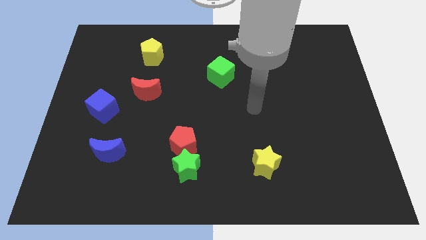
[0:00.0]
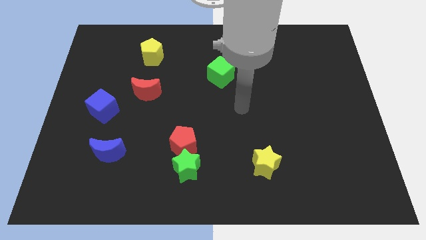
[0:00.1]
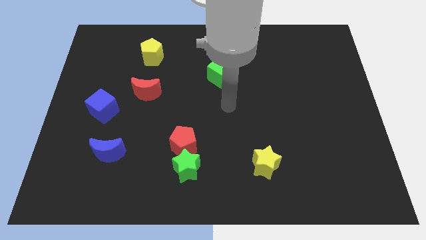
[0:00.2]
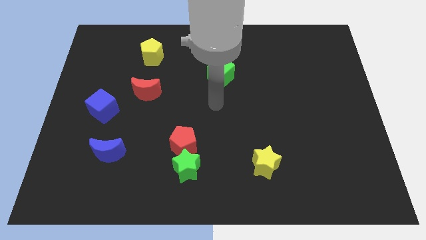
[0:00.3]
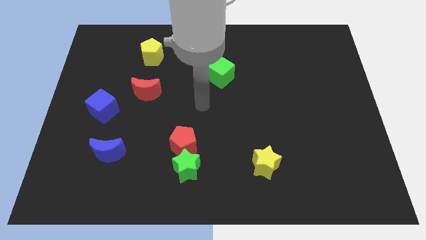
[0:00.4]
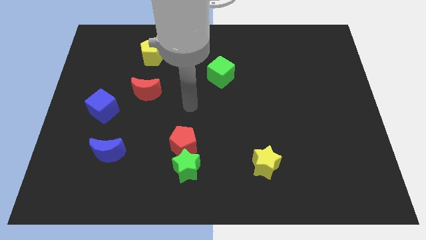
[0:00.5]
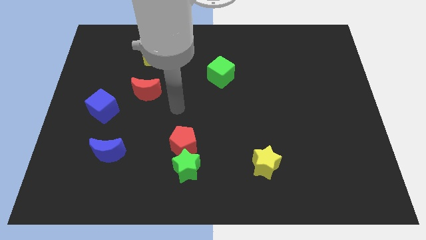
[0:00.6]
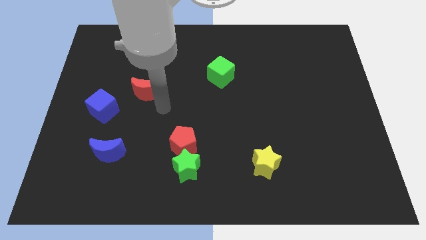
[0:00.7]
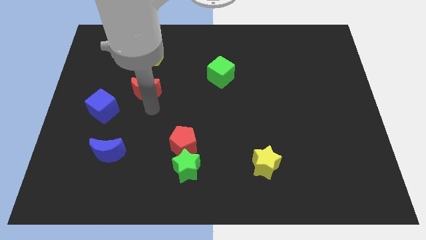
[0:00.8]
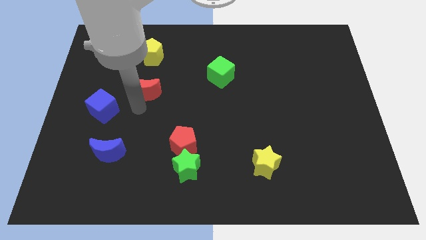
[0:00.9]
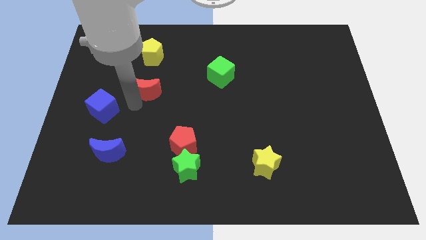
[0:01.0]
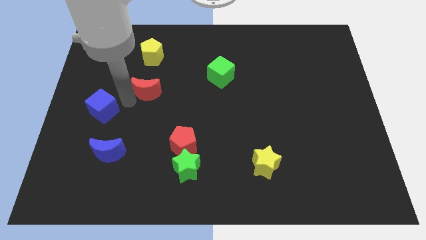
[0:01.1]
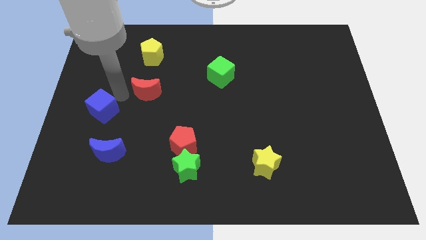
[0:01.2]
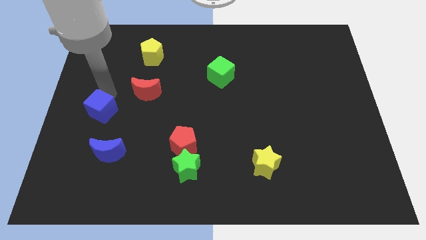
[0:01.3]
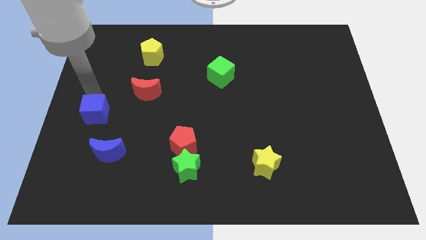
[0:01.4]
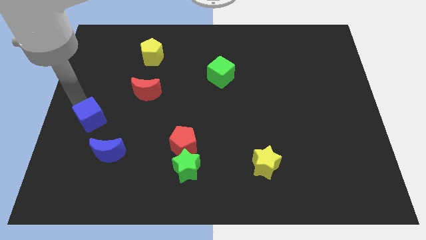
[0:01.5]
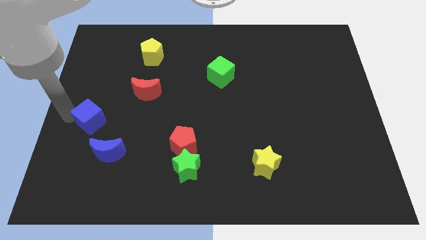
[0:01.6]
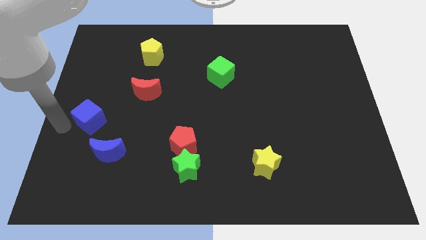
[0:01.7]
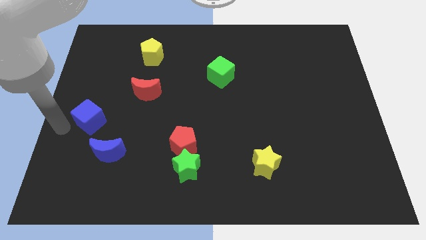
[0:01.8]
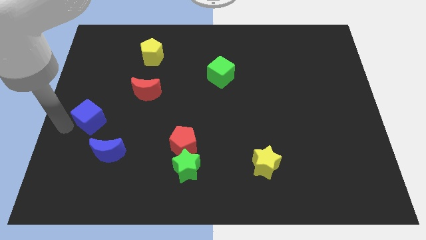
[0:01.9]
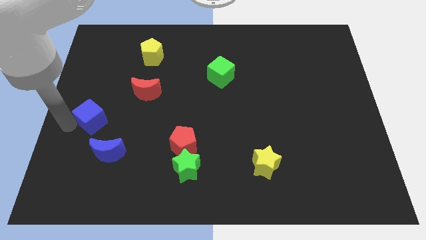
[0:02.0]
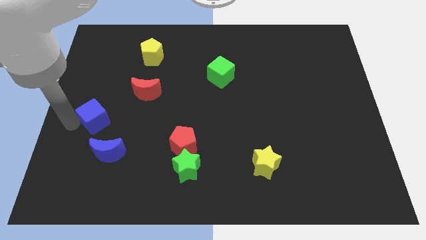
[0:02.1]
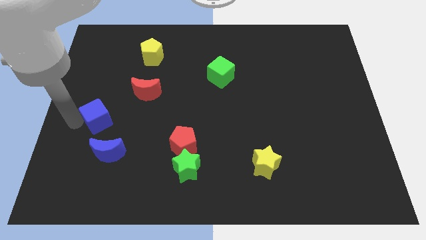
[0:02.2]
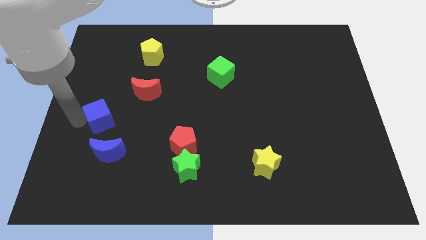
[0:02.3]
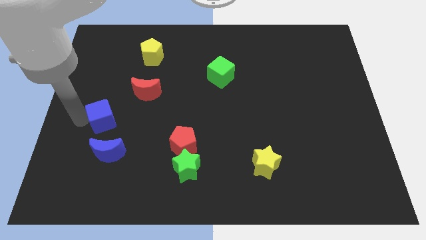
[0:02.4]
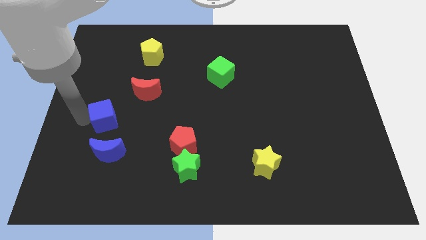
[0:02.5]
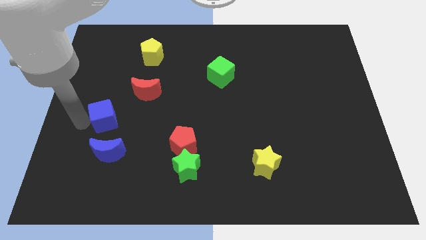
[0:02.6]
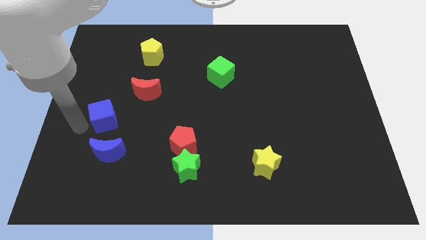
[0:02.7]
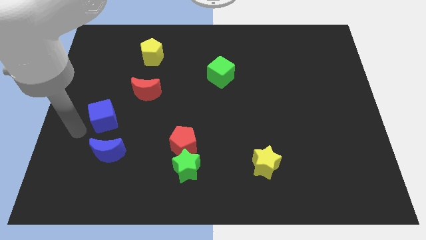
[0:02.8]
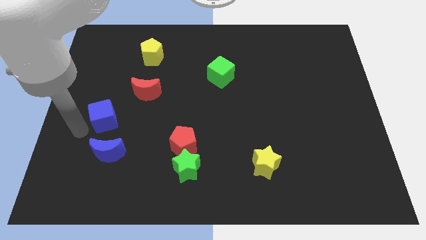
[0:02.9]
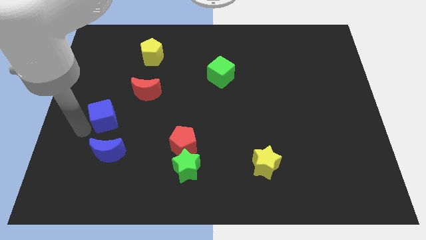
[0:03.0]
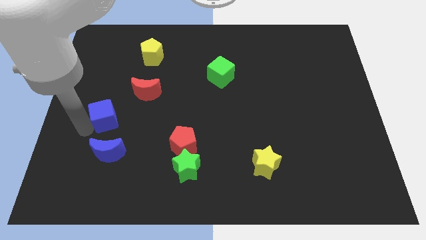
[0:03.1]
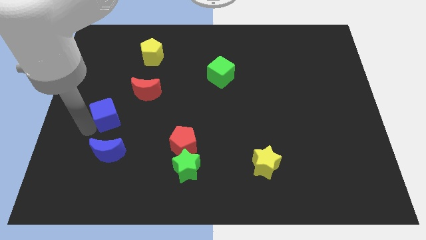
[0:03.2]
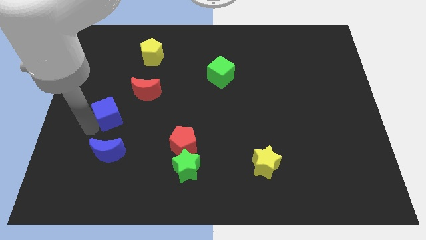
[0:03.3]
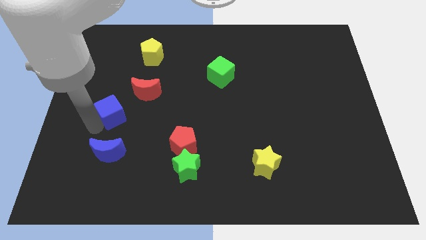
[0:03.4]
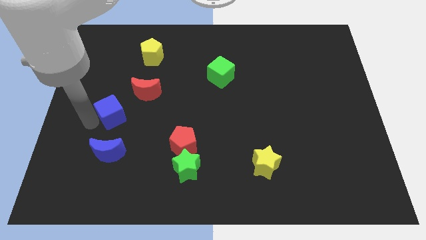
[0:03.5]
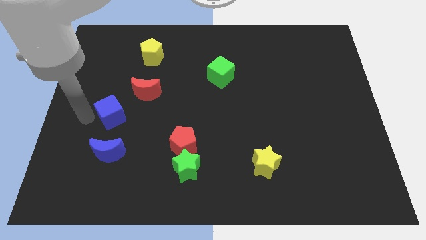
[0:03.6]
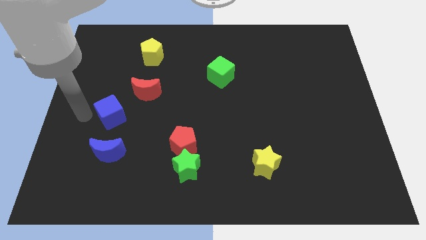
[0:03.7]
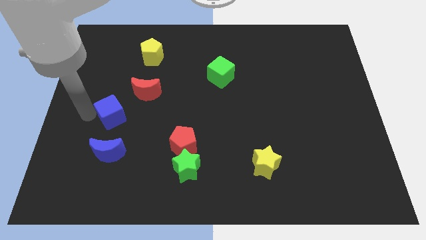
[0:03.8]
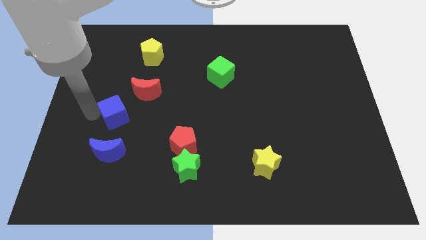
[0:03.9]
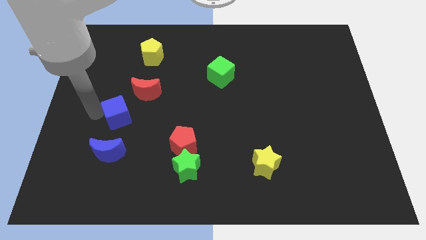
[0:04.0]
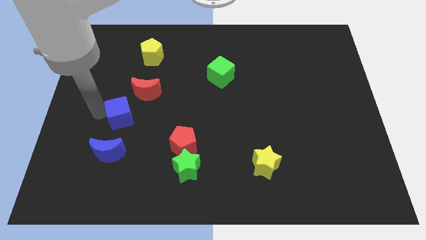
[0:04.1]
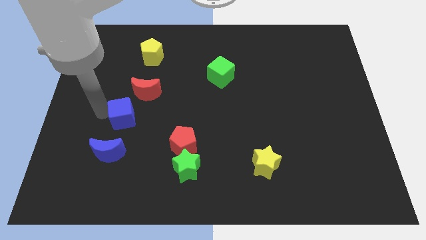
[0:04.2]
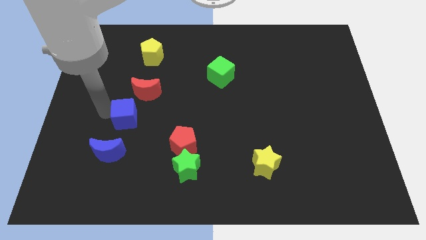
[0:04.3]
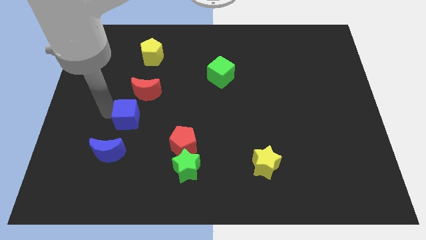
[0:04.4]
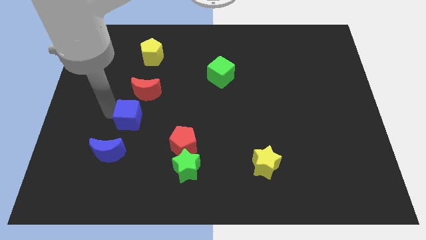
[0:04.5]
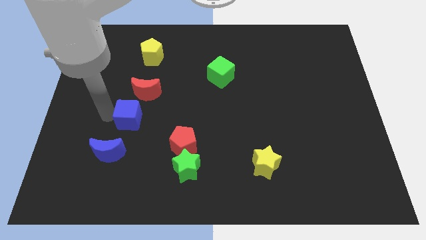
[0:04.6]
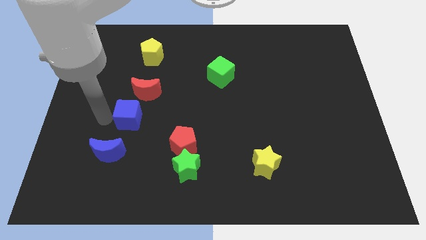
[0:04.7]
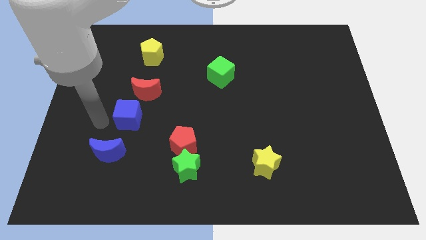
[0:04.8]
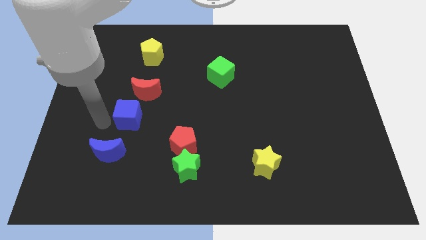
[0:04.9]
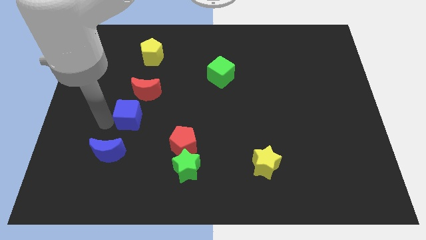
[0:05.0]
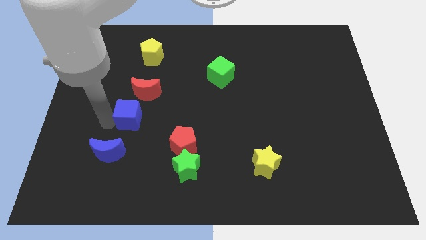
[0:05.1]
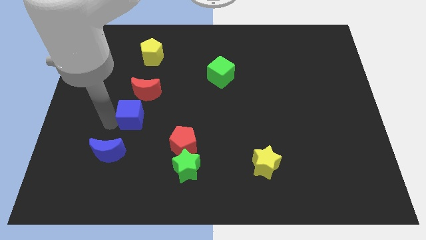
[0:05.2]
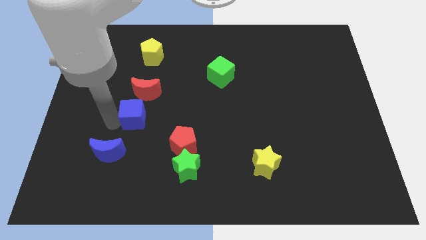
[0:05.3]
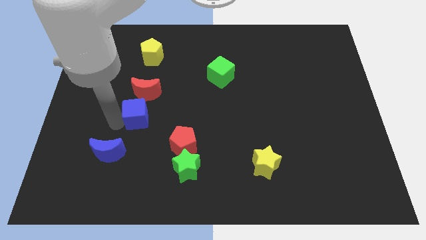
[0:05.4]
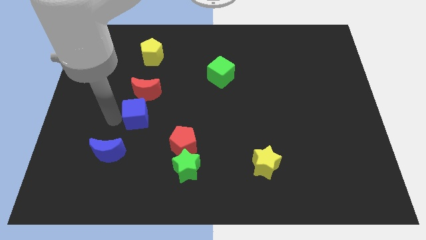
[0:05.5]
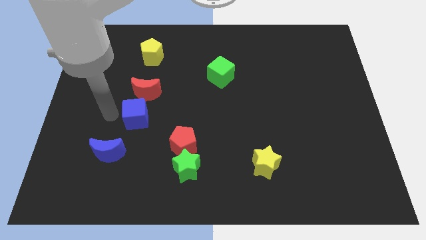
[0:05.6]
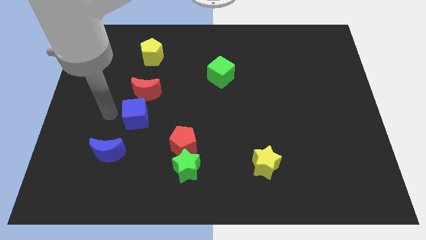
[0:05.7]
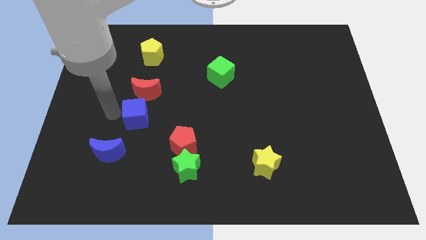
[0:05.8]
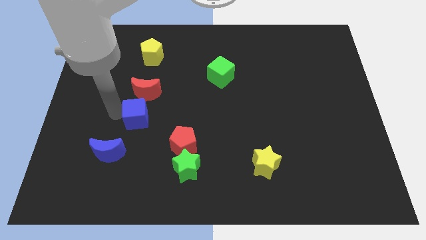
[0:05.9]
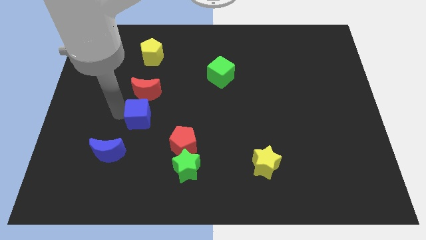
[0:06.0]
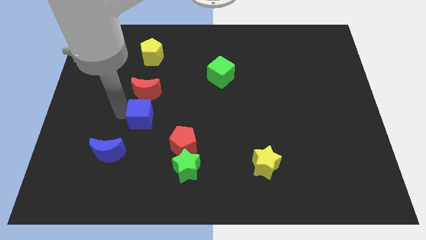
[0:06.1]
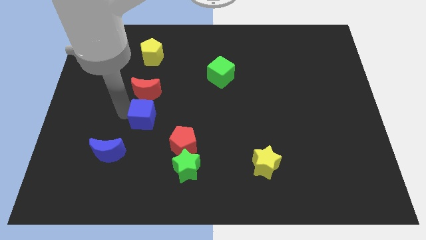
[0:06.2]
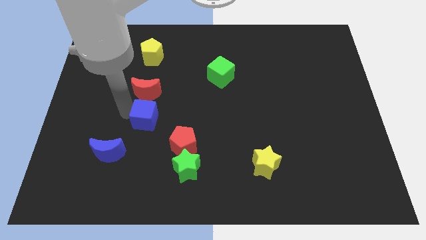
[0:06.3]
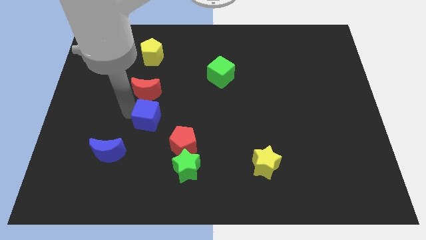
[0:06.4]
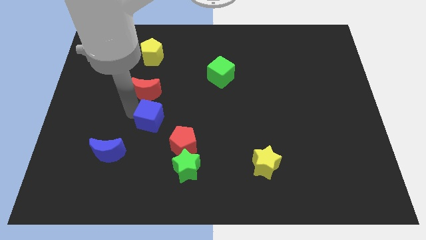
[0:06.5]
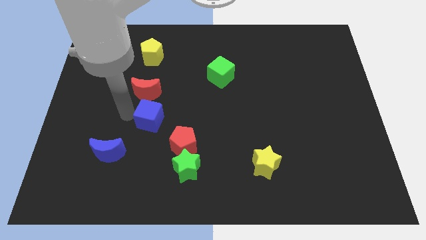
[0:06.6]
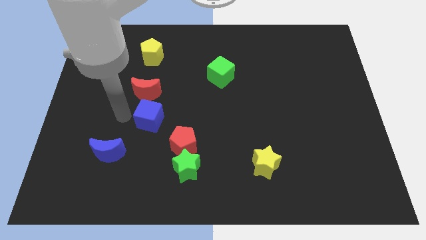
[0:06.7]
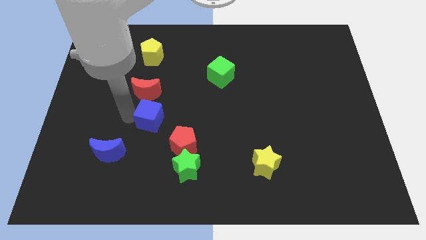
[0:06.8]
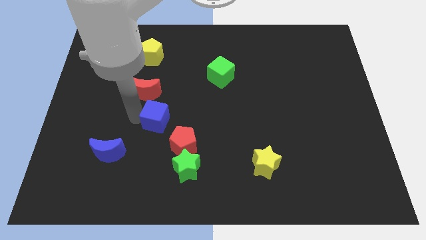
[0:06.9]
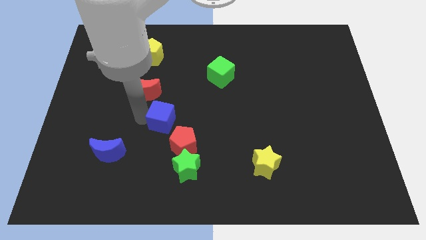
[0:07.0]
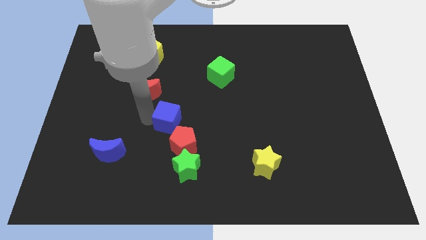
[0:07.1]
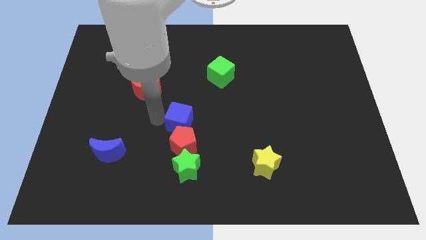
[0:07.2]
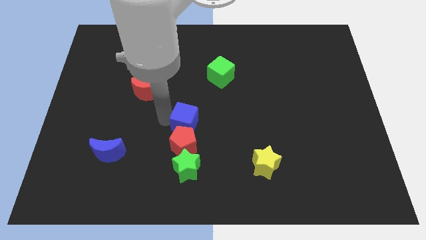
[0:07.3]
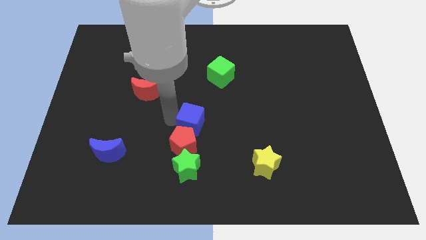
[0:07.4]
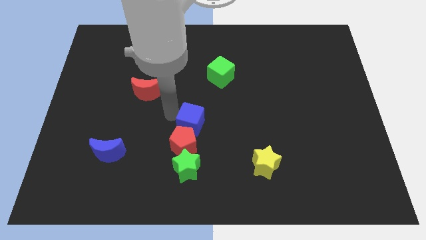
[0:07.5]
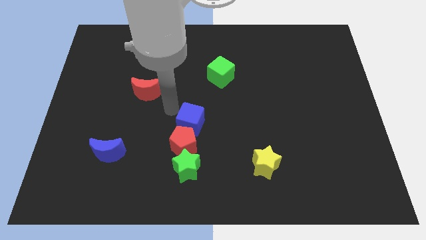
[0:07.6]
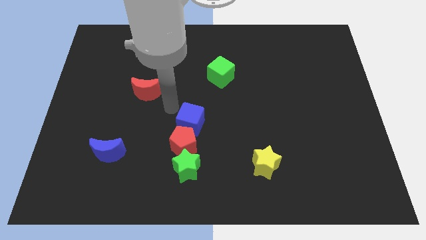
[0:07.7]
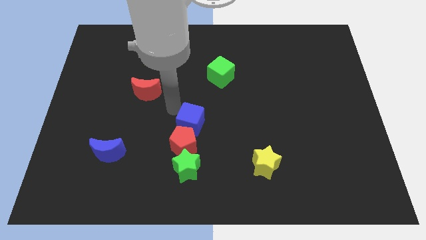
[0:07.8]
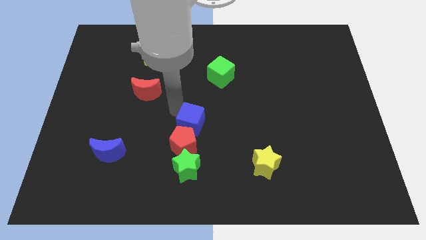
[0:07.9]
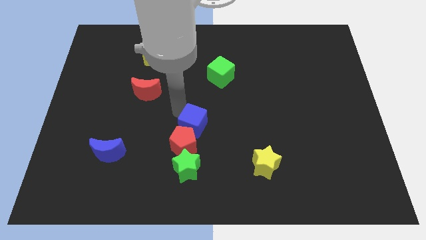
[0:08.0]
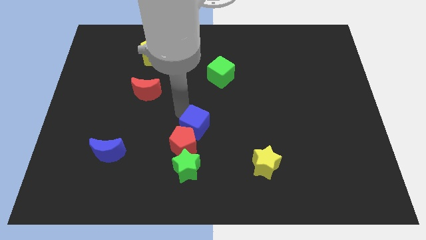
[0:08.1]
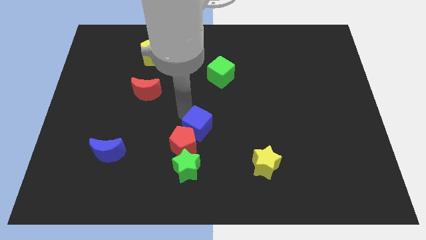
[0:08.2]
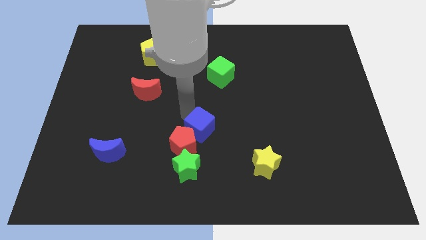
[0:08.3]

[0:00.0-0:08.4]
put the blue cube just right of the red pentagon
